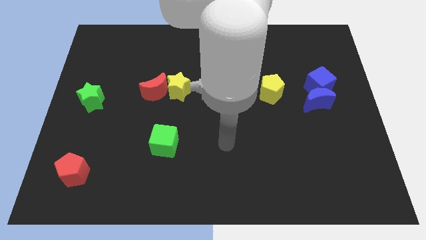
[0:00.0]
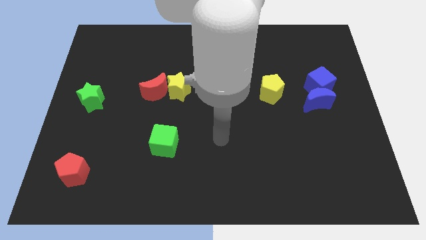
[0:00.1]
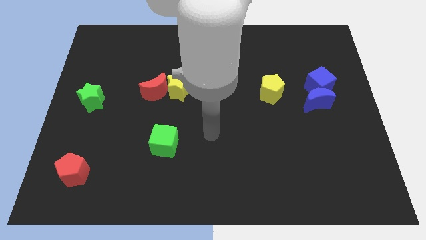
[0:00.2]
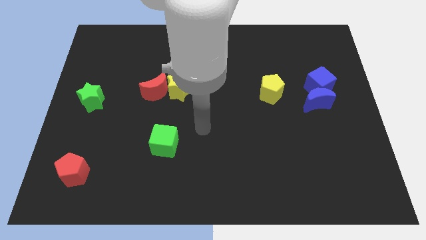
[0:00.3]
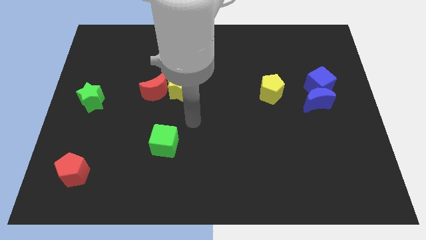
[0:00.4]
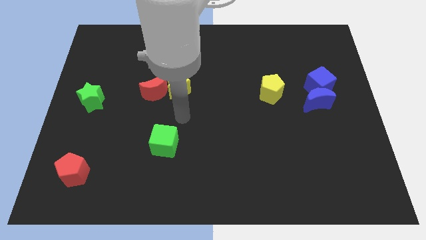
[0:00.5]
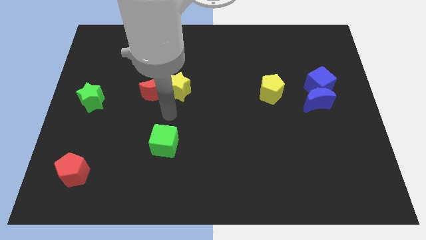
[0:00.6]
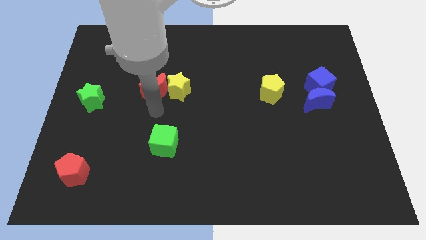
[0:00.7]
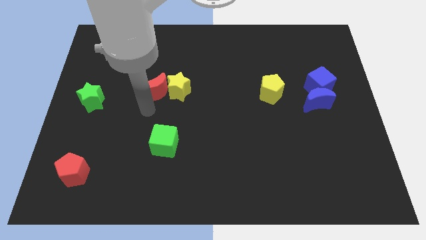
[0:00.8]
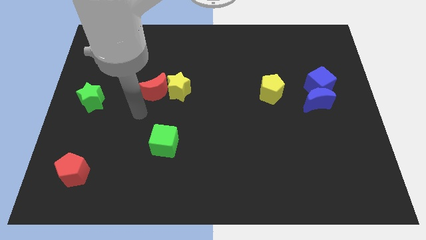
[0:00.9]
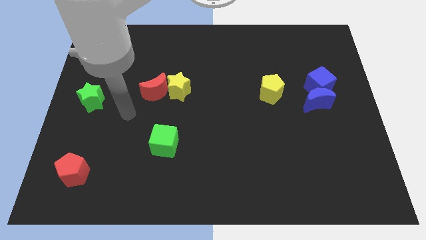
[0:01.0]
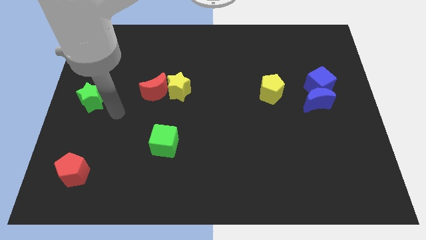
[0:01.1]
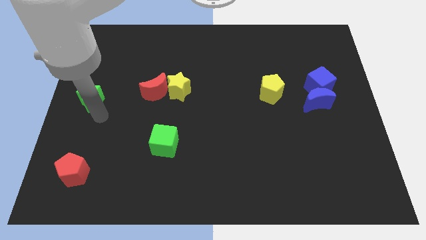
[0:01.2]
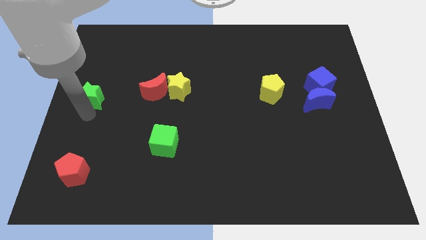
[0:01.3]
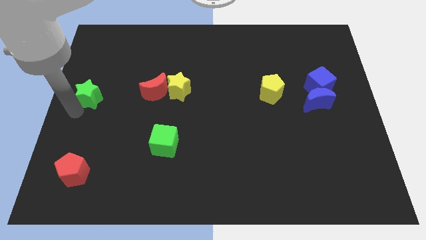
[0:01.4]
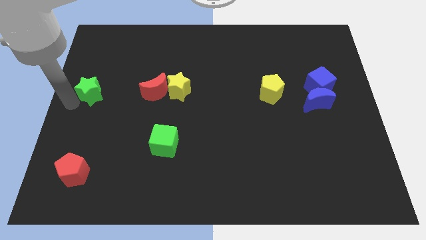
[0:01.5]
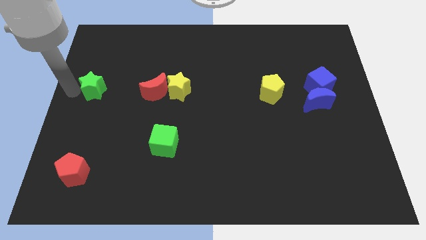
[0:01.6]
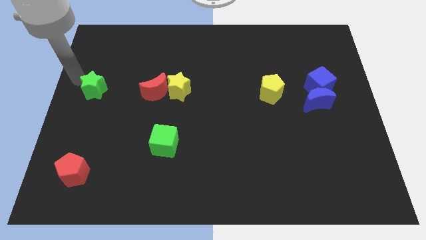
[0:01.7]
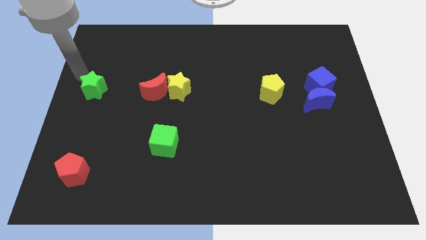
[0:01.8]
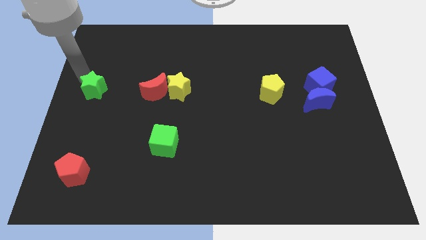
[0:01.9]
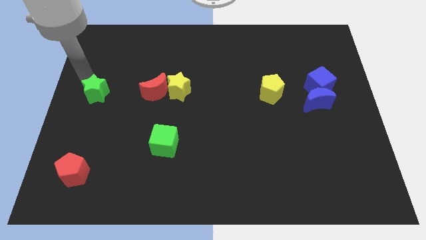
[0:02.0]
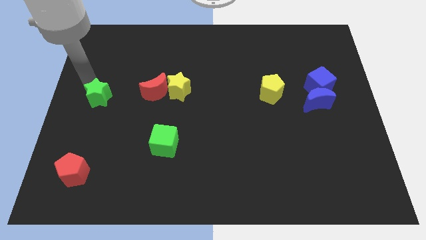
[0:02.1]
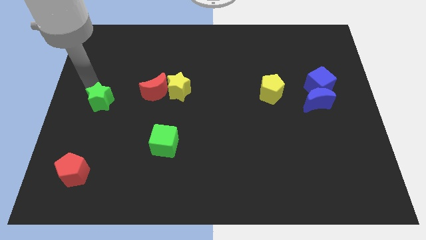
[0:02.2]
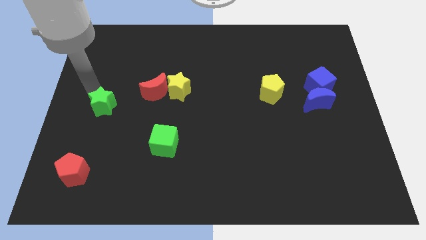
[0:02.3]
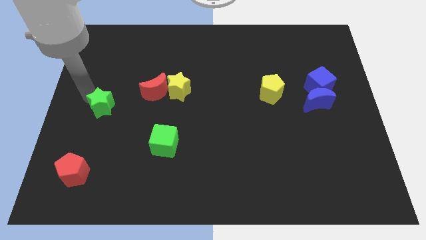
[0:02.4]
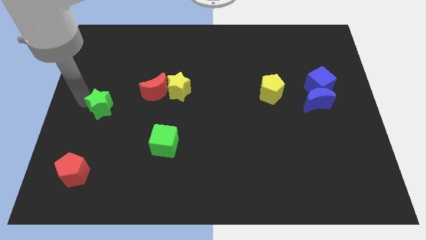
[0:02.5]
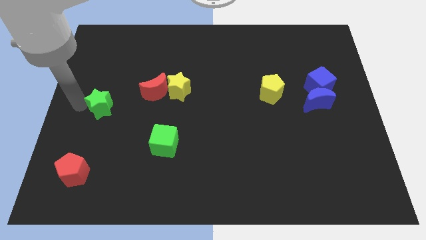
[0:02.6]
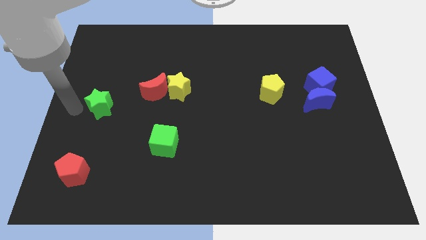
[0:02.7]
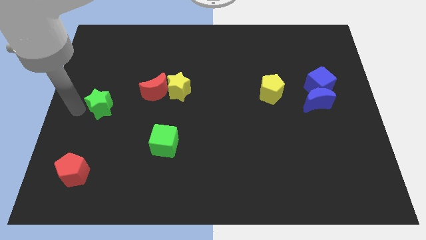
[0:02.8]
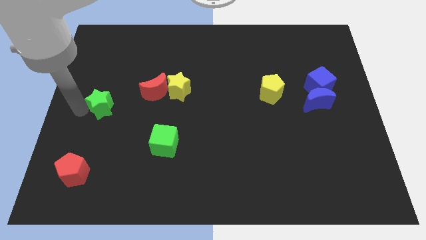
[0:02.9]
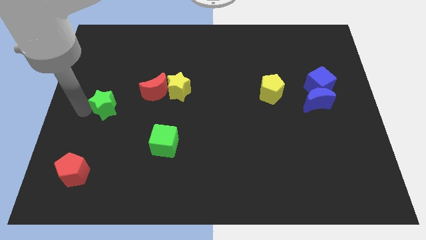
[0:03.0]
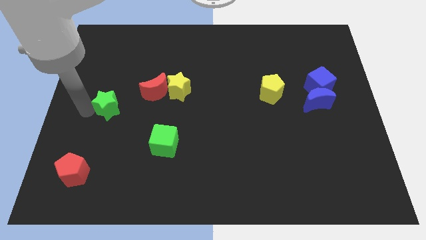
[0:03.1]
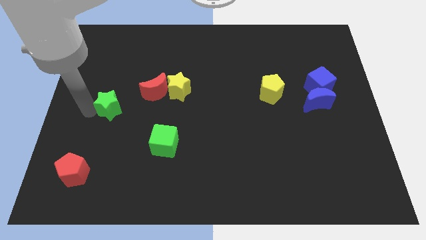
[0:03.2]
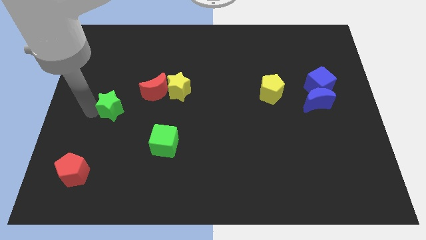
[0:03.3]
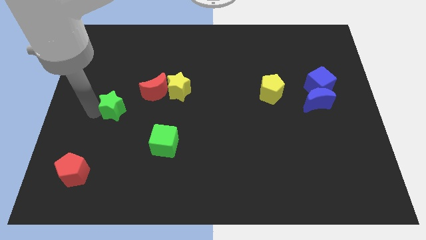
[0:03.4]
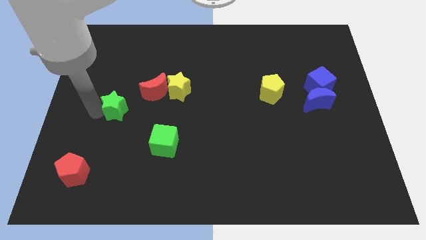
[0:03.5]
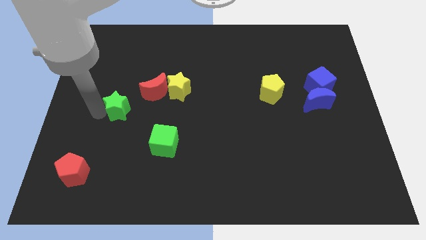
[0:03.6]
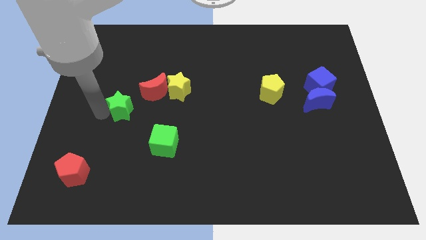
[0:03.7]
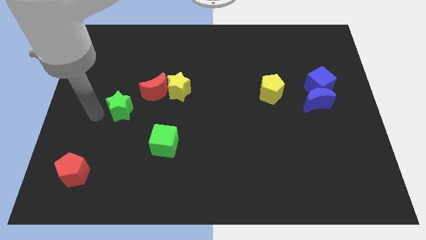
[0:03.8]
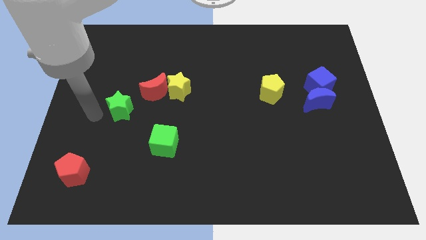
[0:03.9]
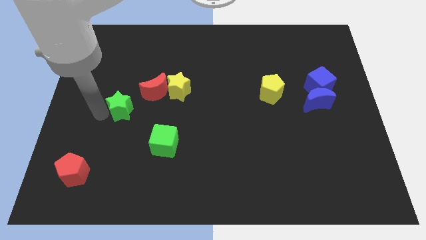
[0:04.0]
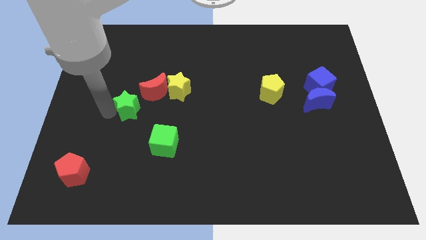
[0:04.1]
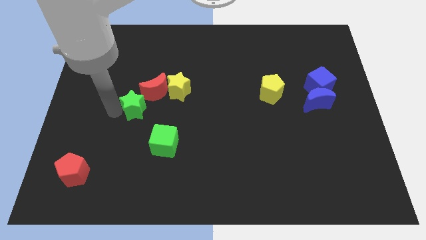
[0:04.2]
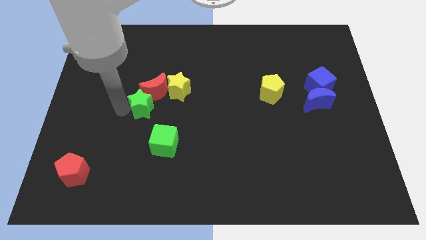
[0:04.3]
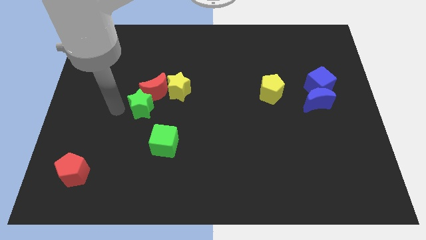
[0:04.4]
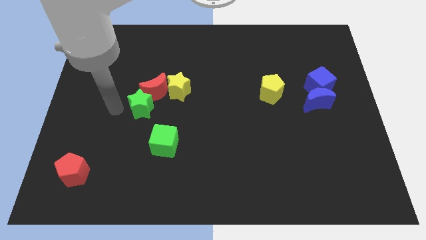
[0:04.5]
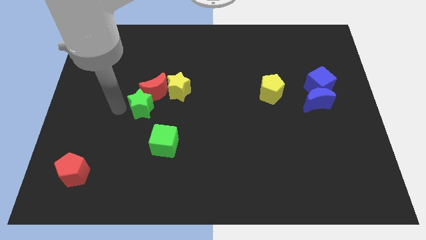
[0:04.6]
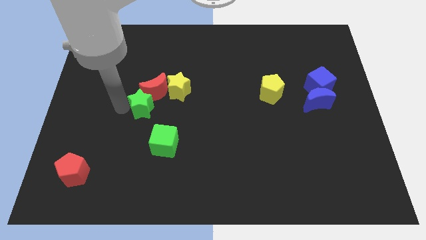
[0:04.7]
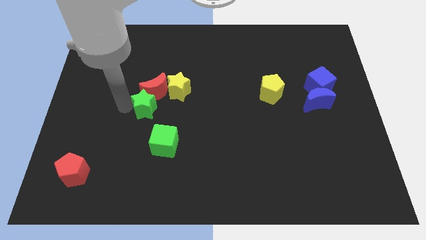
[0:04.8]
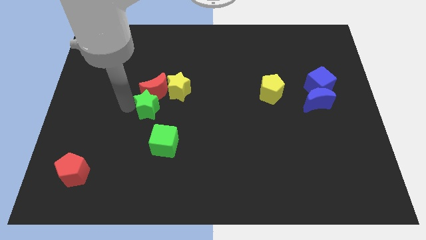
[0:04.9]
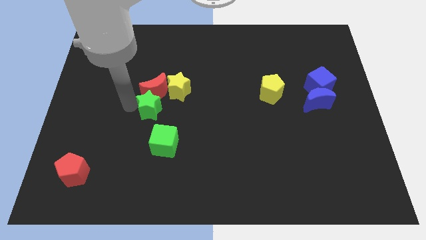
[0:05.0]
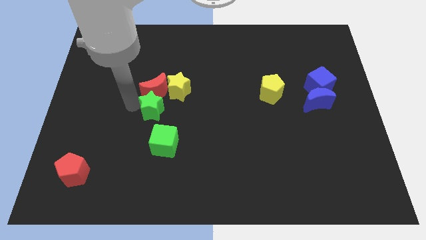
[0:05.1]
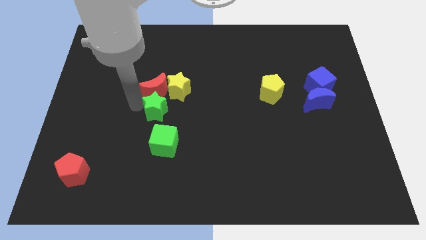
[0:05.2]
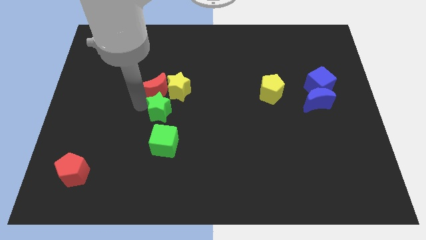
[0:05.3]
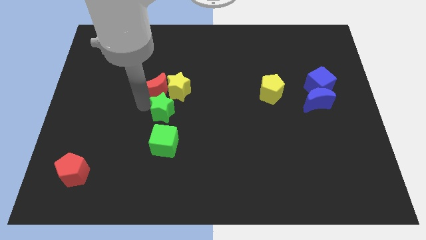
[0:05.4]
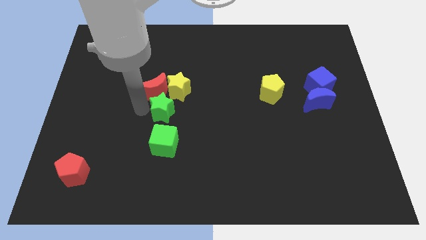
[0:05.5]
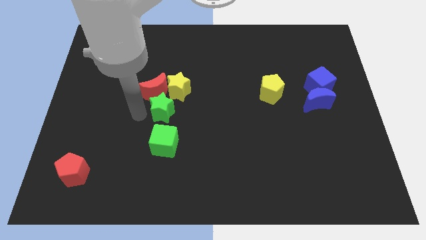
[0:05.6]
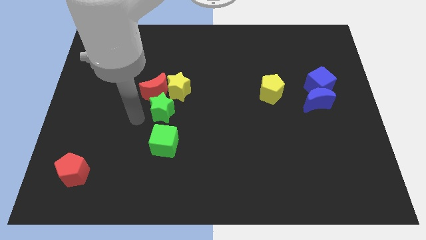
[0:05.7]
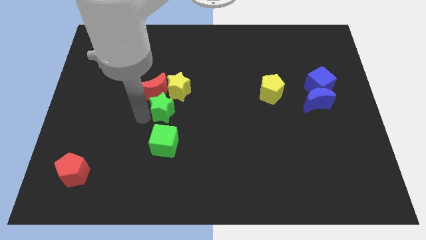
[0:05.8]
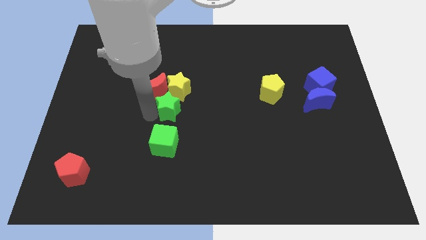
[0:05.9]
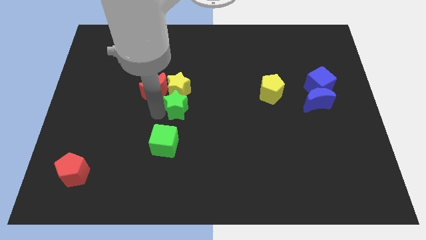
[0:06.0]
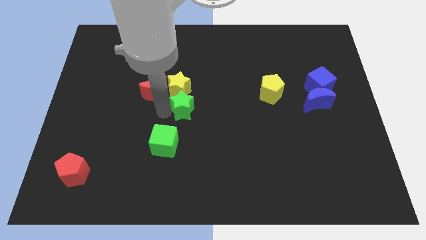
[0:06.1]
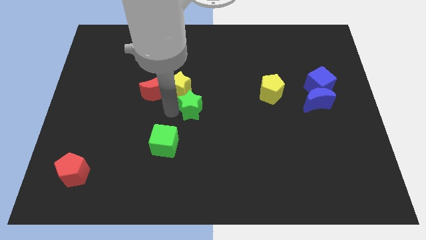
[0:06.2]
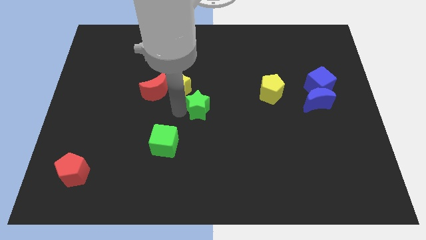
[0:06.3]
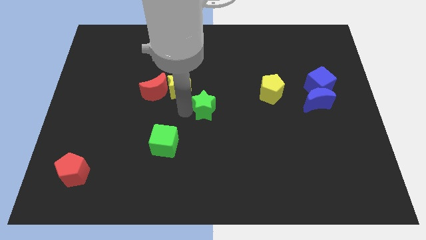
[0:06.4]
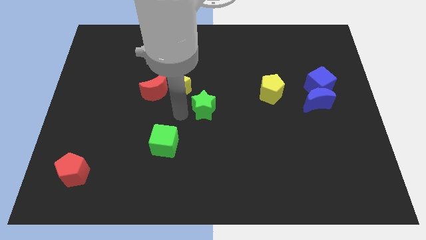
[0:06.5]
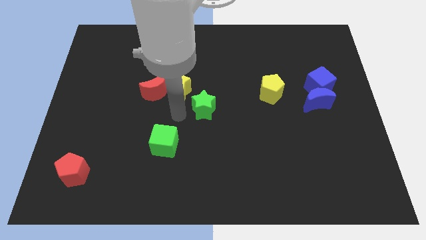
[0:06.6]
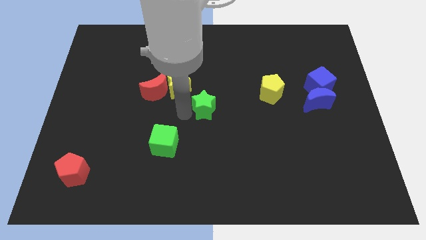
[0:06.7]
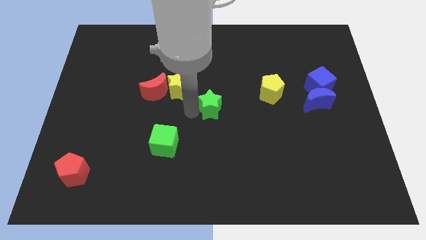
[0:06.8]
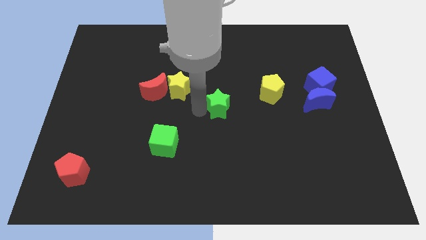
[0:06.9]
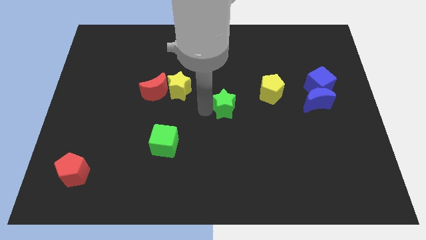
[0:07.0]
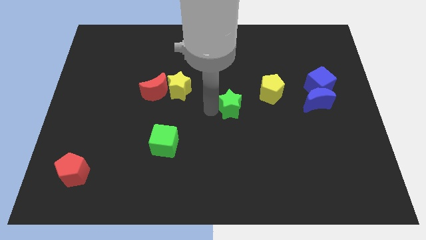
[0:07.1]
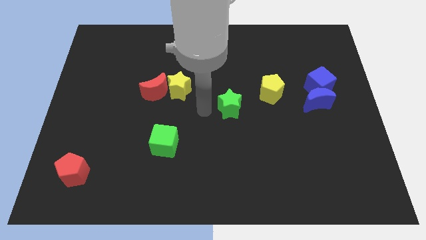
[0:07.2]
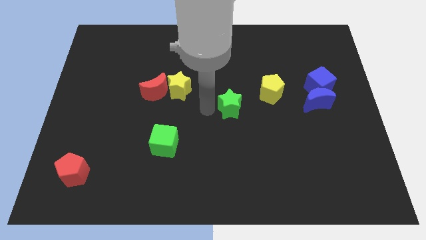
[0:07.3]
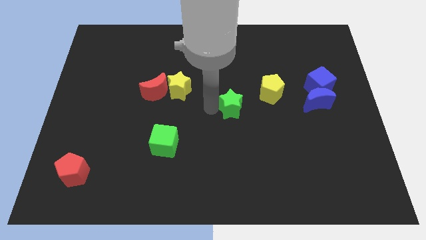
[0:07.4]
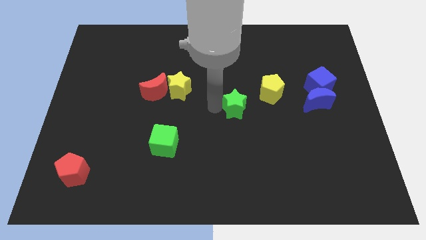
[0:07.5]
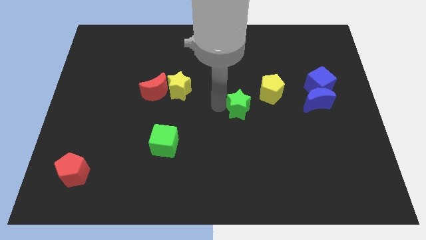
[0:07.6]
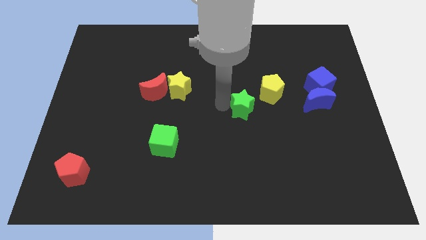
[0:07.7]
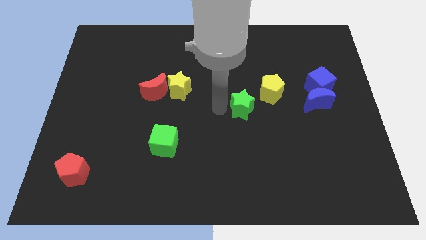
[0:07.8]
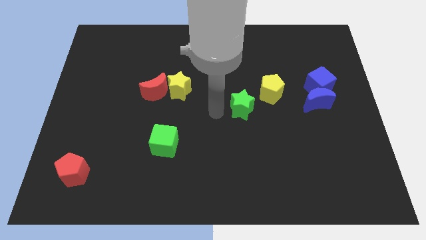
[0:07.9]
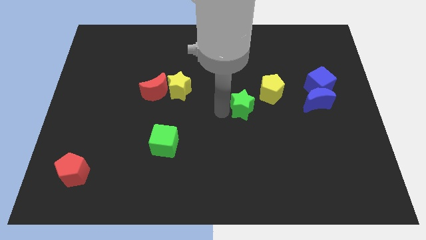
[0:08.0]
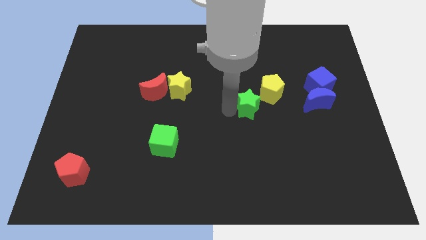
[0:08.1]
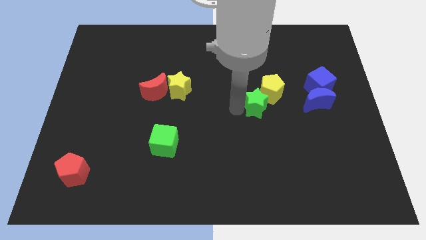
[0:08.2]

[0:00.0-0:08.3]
push the green star to the left of the blue moon
